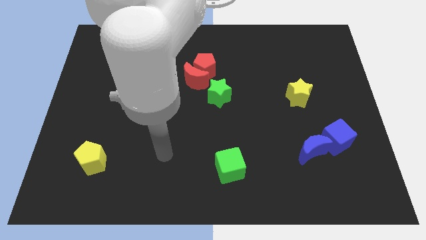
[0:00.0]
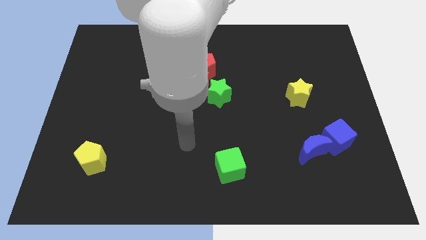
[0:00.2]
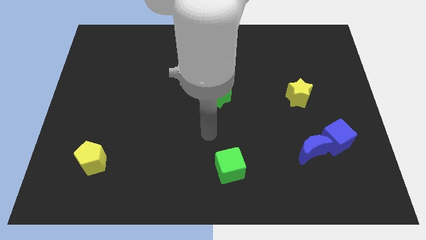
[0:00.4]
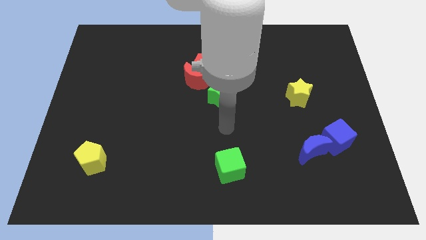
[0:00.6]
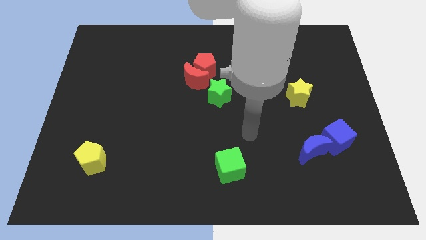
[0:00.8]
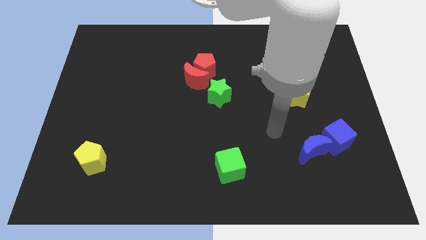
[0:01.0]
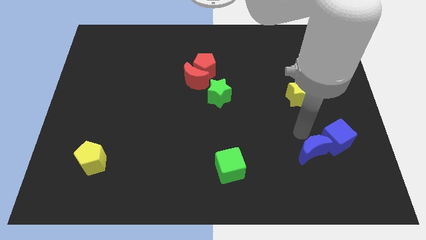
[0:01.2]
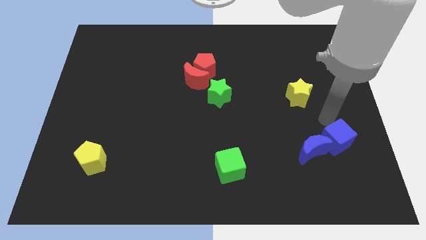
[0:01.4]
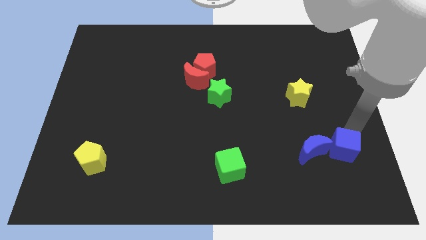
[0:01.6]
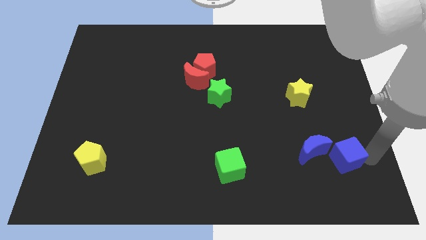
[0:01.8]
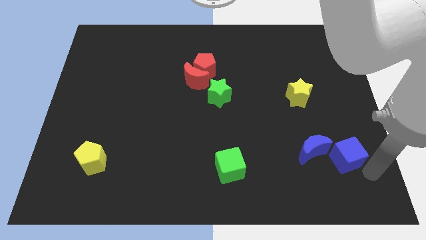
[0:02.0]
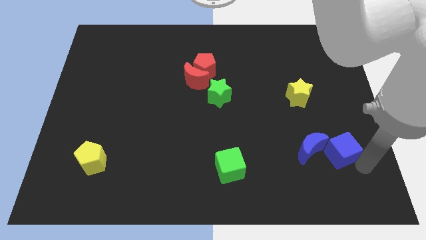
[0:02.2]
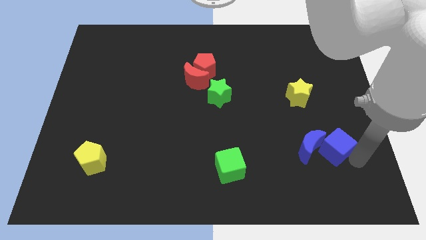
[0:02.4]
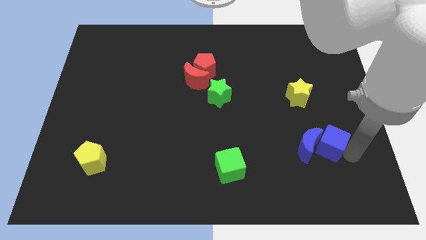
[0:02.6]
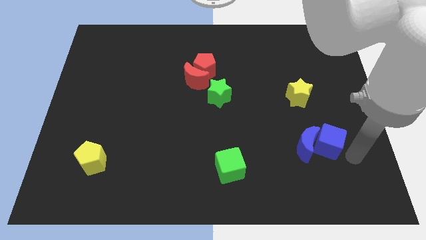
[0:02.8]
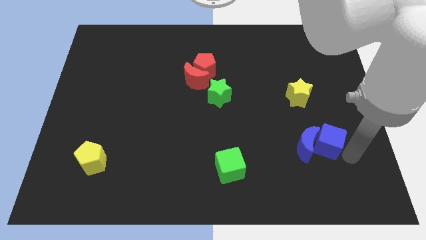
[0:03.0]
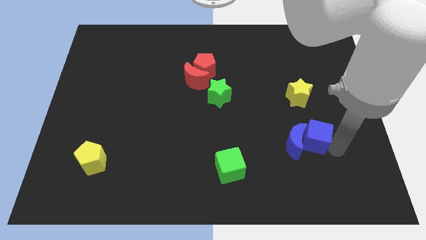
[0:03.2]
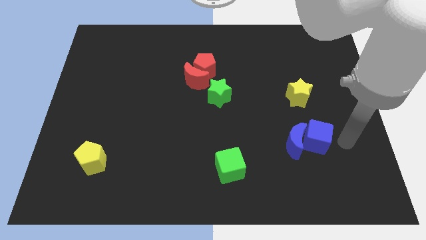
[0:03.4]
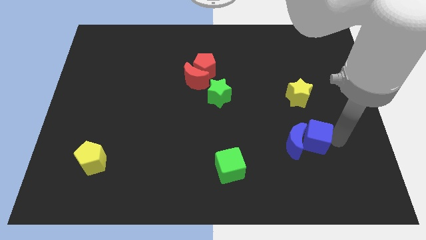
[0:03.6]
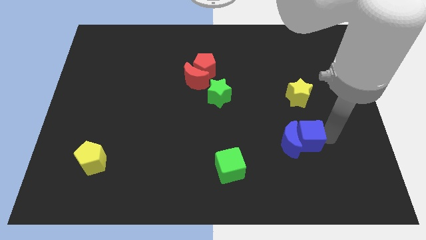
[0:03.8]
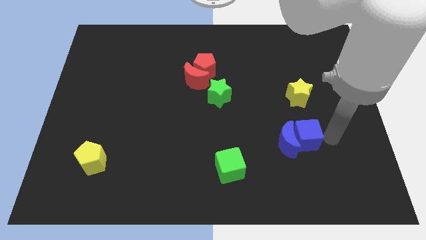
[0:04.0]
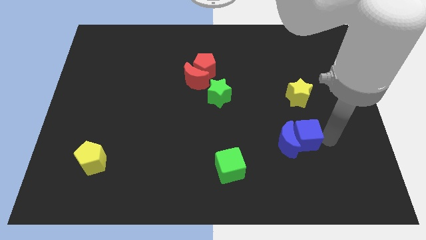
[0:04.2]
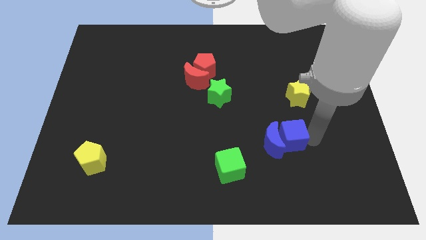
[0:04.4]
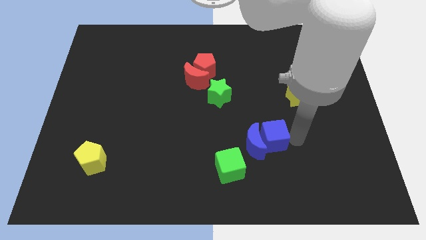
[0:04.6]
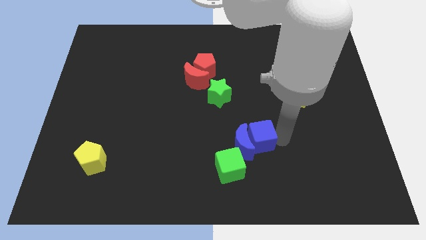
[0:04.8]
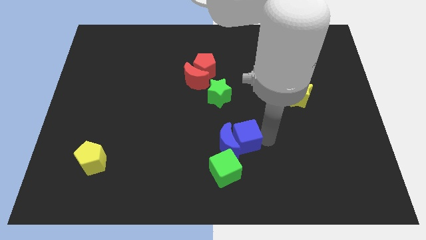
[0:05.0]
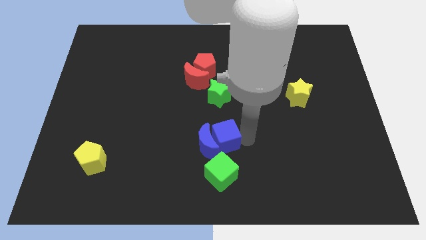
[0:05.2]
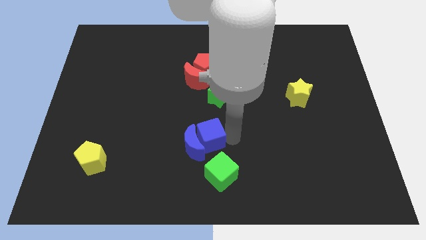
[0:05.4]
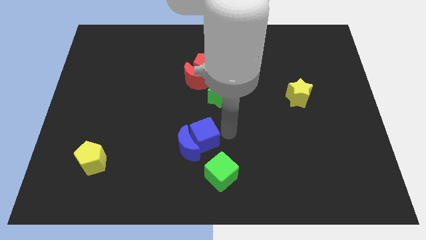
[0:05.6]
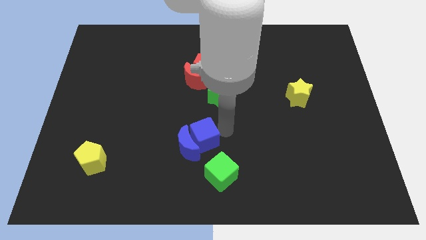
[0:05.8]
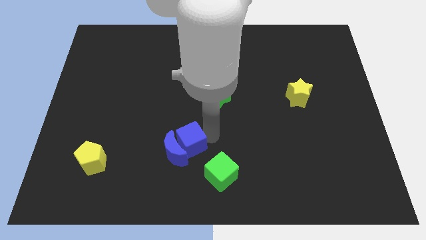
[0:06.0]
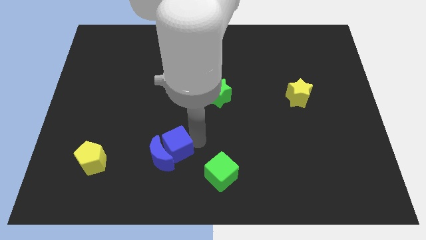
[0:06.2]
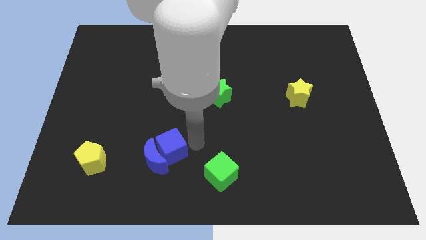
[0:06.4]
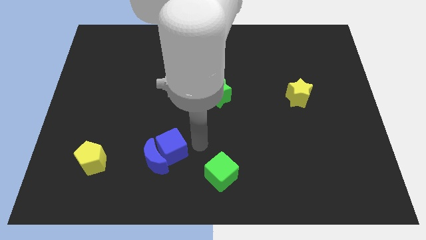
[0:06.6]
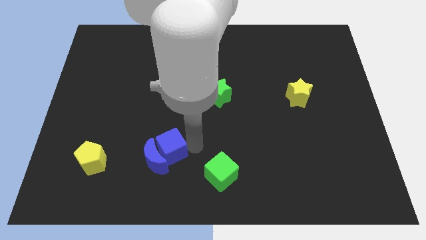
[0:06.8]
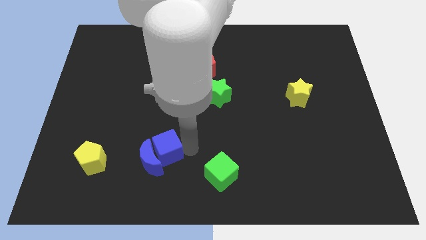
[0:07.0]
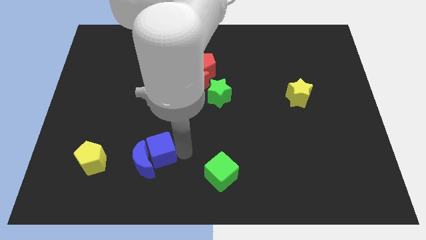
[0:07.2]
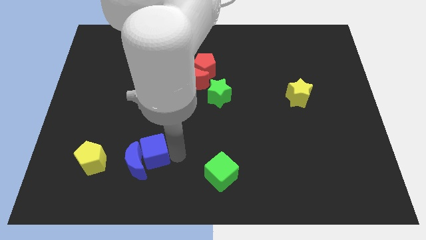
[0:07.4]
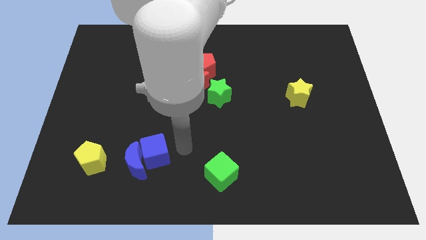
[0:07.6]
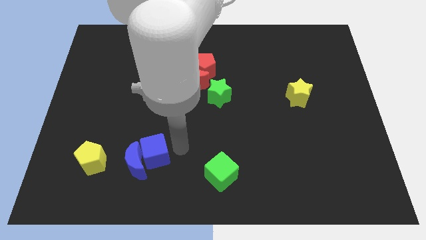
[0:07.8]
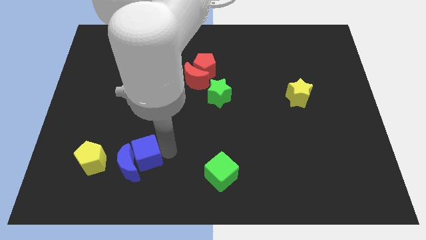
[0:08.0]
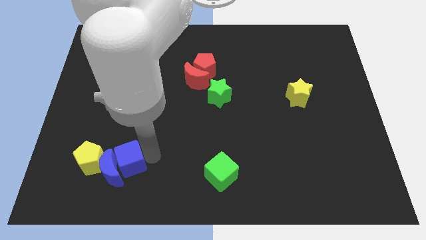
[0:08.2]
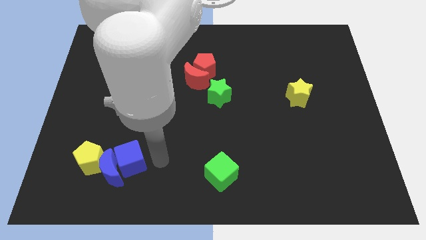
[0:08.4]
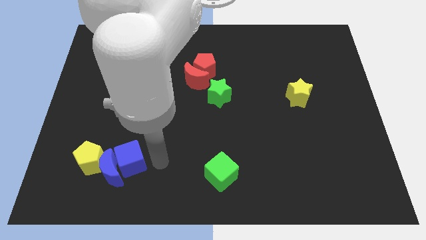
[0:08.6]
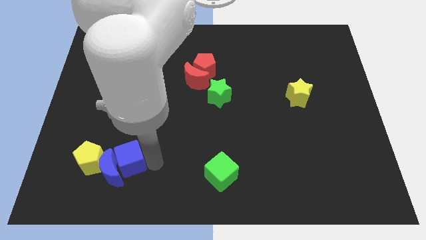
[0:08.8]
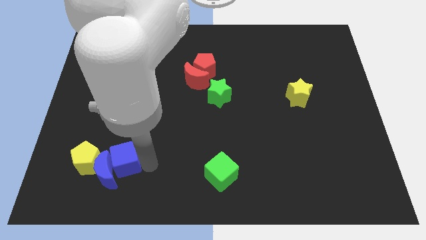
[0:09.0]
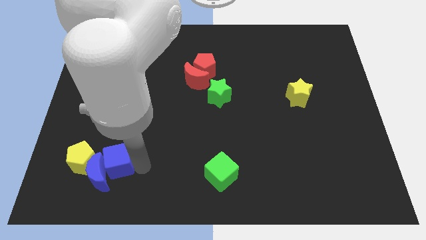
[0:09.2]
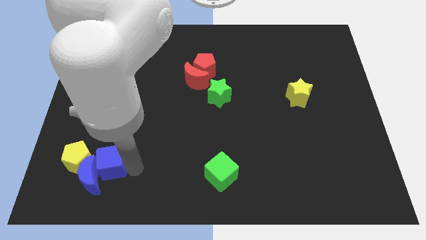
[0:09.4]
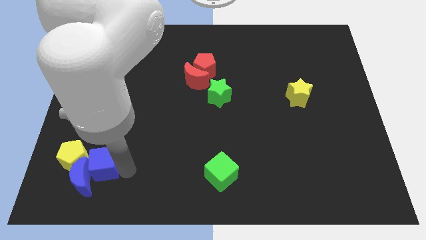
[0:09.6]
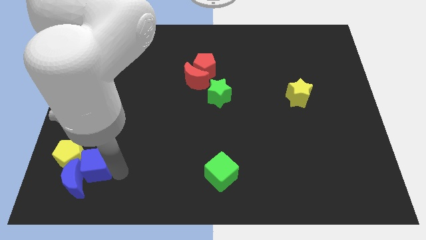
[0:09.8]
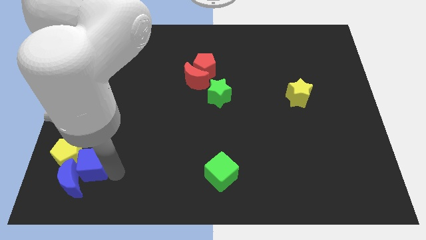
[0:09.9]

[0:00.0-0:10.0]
push the blue cube towards the yellow pentagon

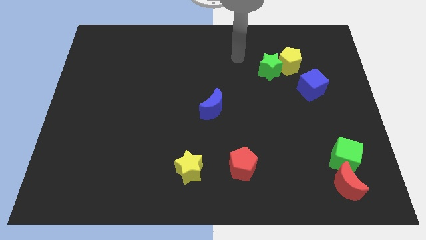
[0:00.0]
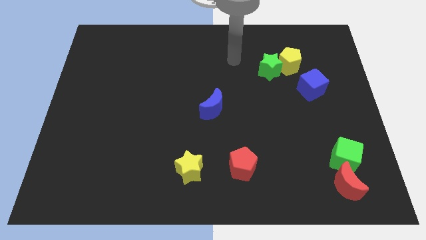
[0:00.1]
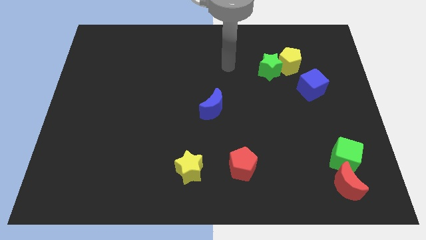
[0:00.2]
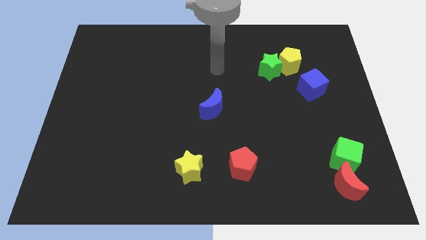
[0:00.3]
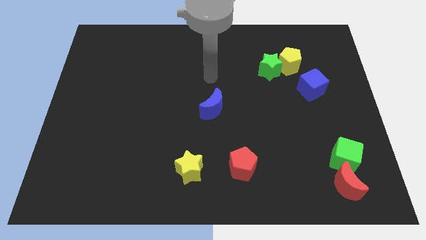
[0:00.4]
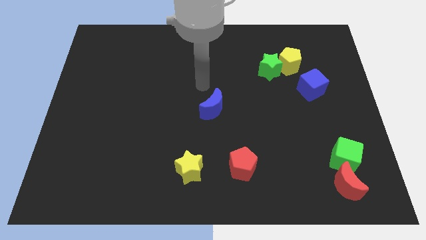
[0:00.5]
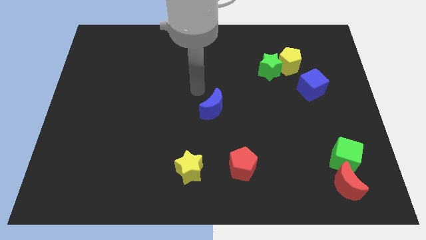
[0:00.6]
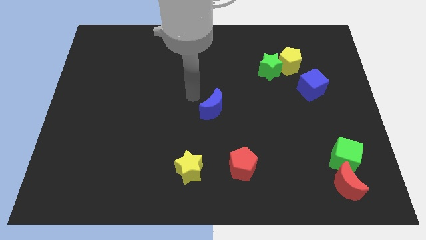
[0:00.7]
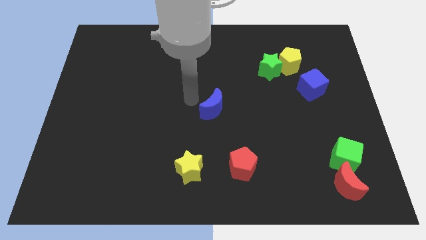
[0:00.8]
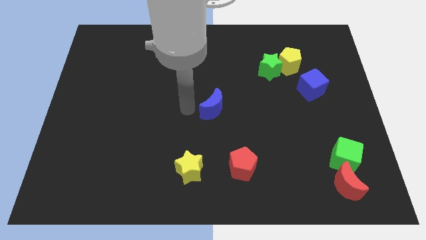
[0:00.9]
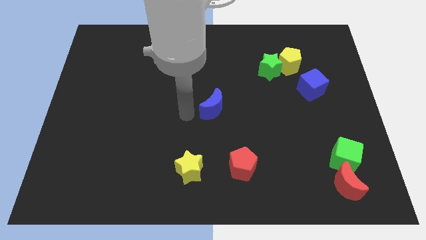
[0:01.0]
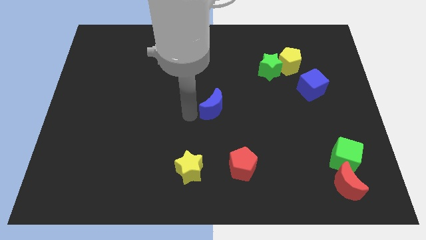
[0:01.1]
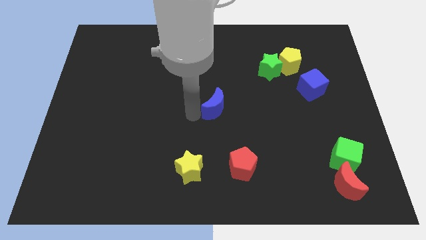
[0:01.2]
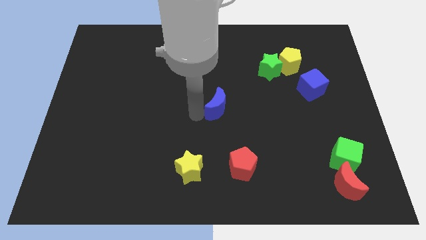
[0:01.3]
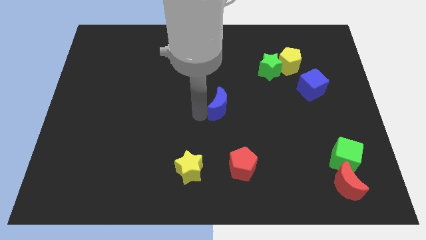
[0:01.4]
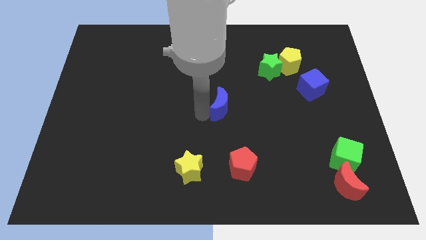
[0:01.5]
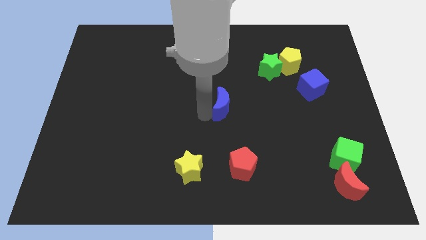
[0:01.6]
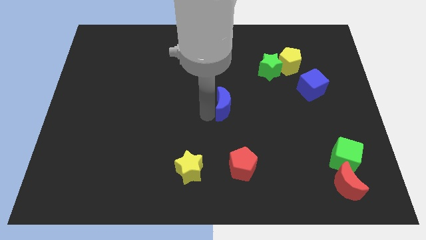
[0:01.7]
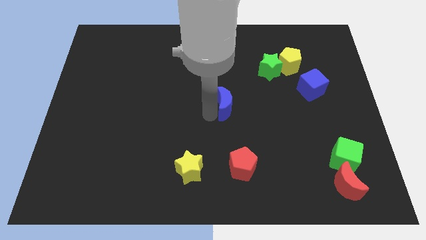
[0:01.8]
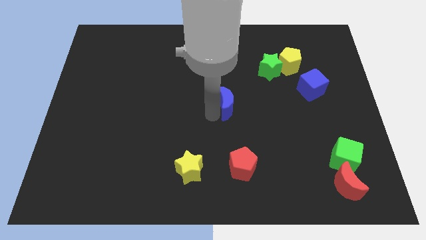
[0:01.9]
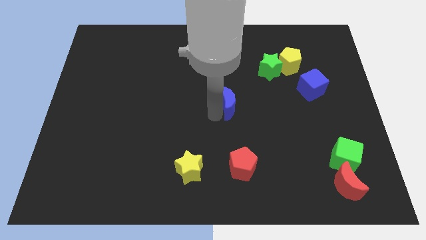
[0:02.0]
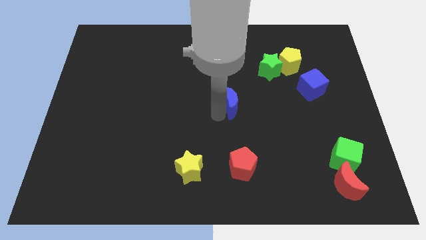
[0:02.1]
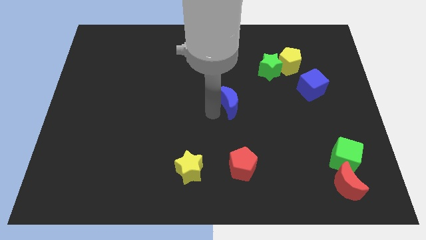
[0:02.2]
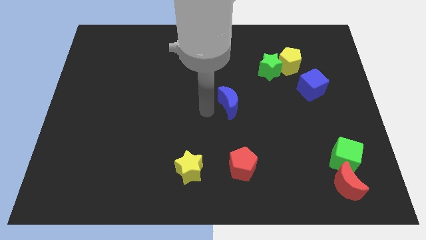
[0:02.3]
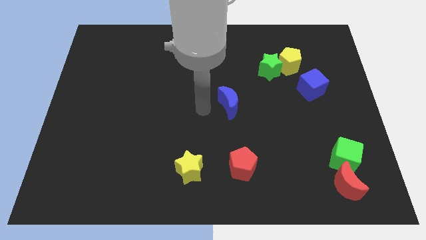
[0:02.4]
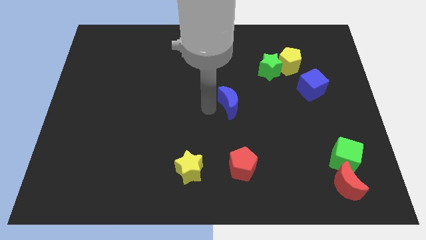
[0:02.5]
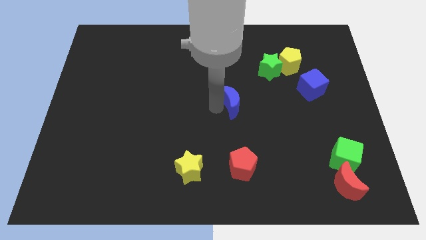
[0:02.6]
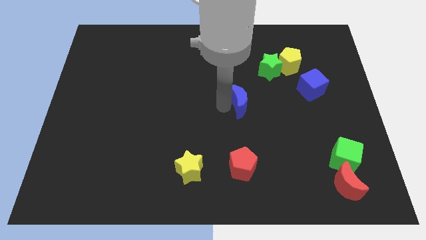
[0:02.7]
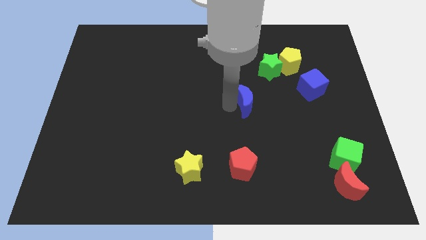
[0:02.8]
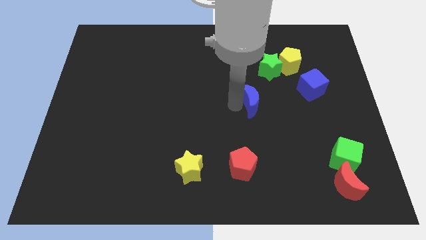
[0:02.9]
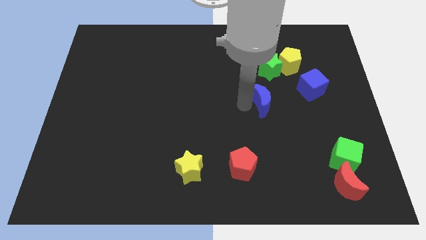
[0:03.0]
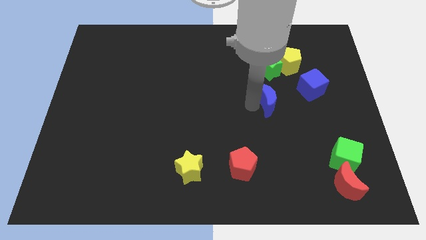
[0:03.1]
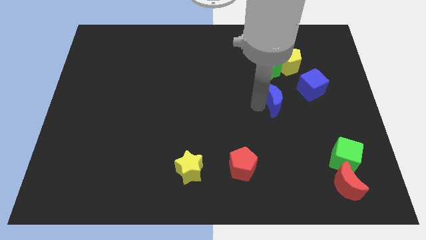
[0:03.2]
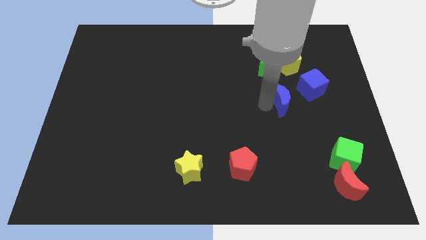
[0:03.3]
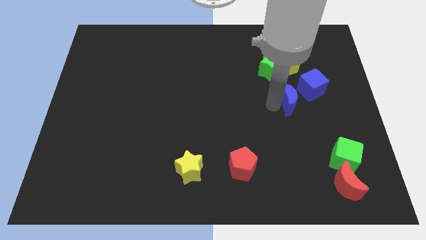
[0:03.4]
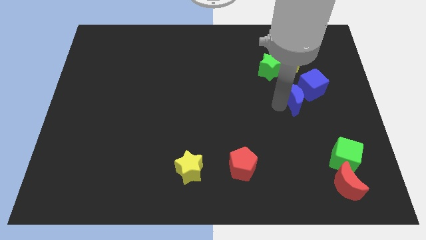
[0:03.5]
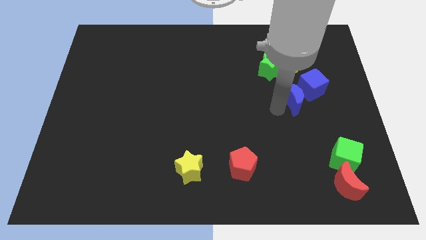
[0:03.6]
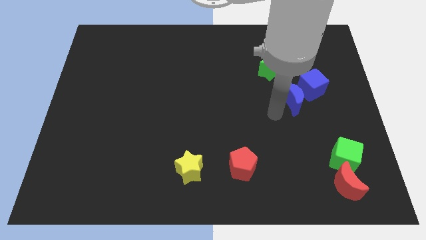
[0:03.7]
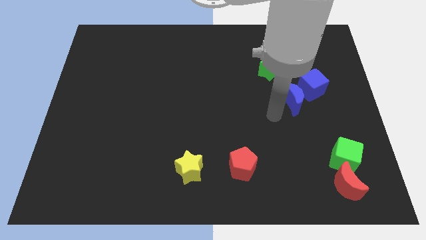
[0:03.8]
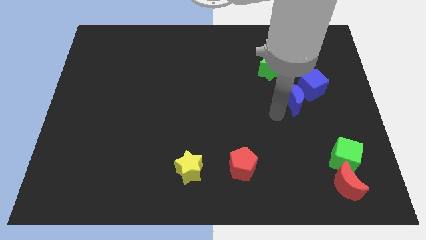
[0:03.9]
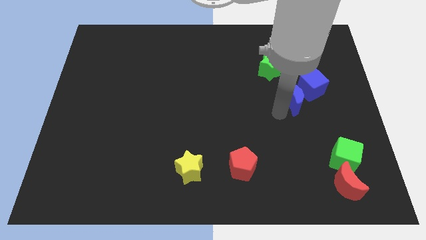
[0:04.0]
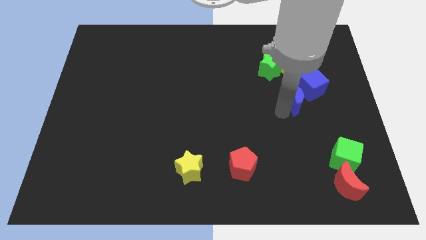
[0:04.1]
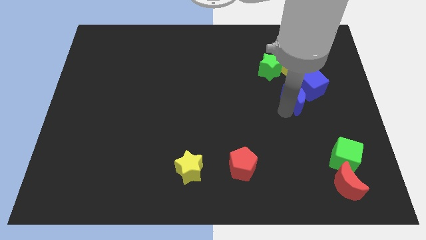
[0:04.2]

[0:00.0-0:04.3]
slide the blue moon to the blue cube
